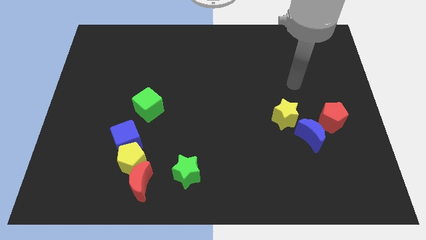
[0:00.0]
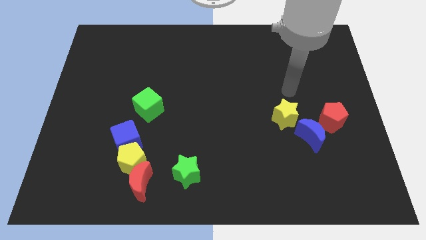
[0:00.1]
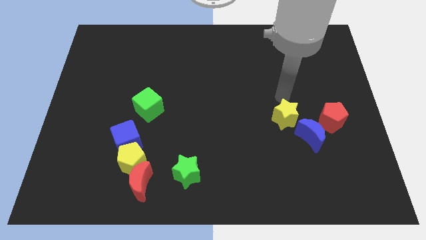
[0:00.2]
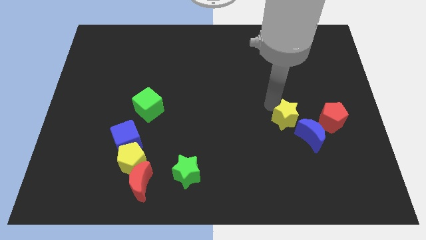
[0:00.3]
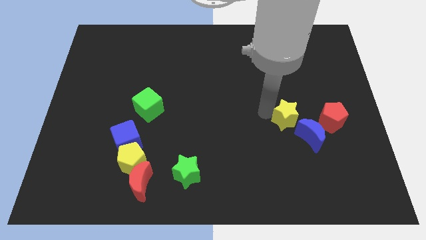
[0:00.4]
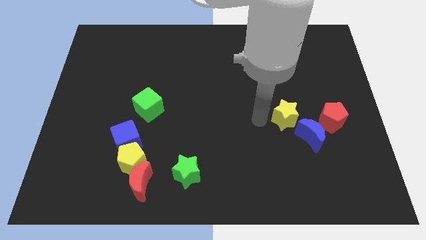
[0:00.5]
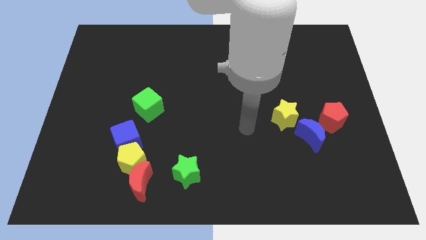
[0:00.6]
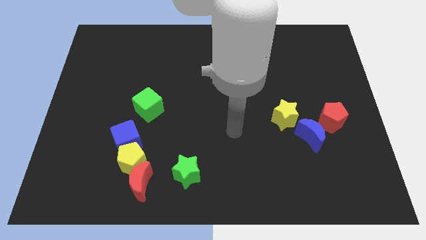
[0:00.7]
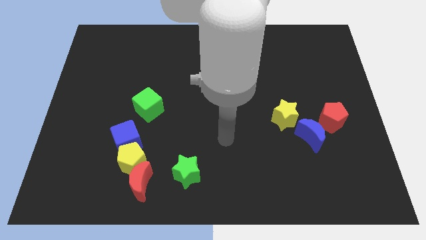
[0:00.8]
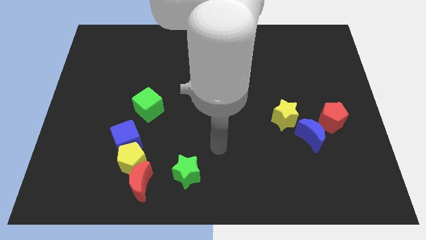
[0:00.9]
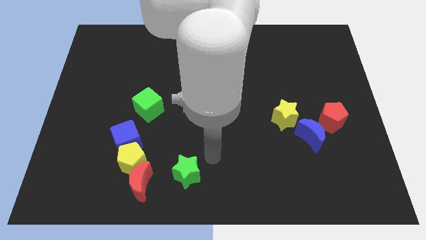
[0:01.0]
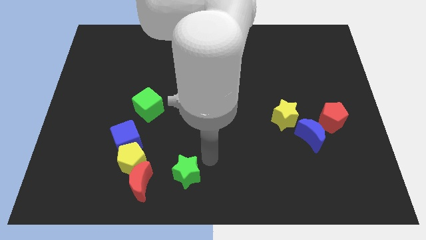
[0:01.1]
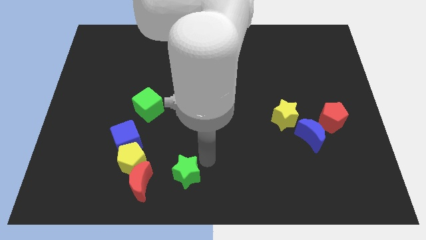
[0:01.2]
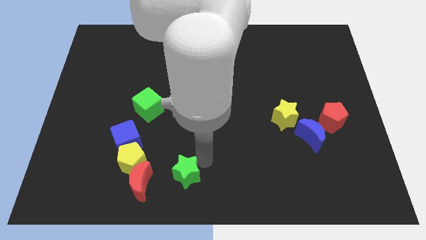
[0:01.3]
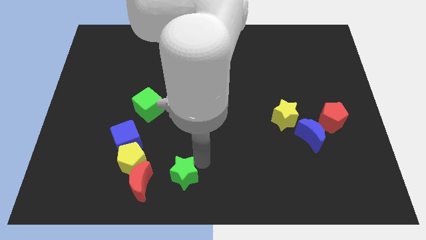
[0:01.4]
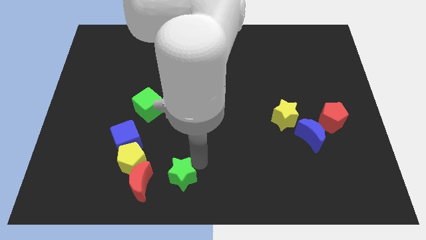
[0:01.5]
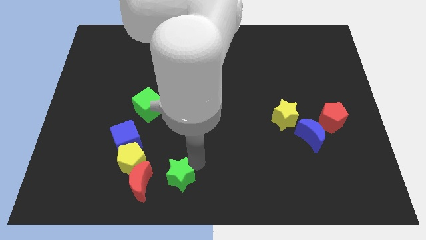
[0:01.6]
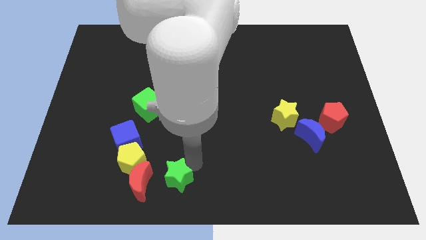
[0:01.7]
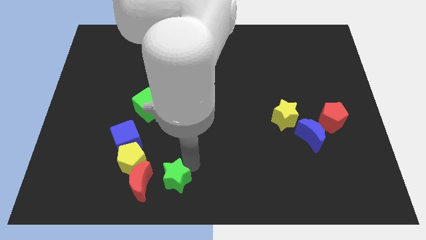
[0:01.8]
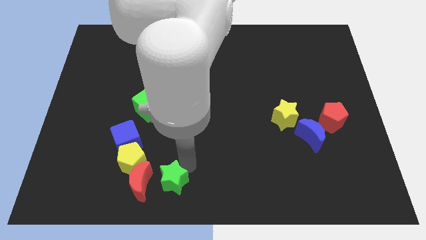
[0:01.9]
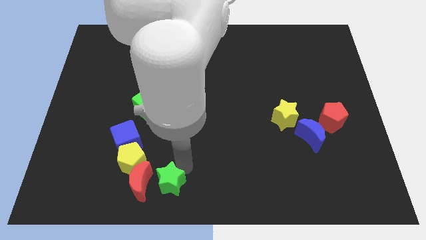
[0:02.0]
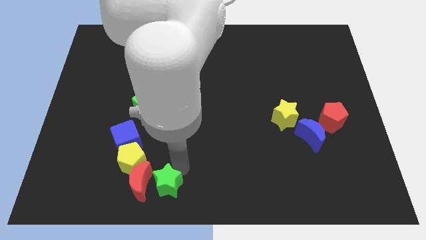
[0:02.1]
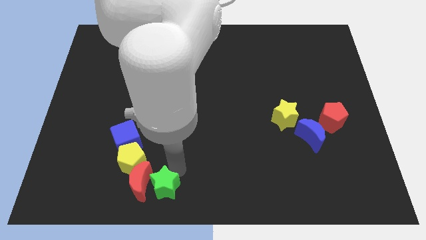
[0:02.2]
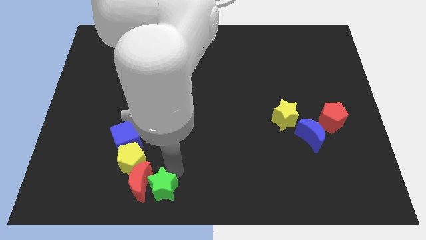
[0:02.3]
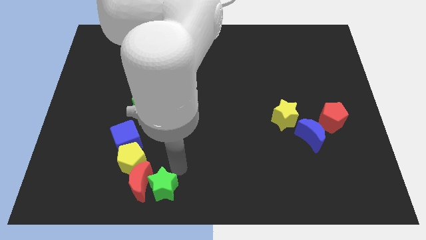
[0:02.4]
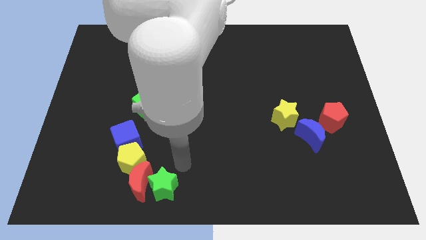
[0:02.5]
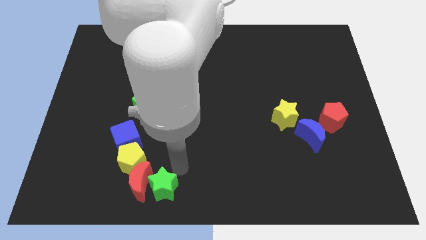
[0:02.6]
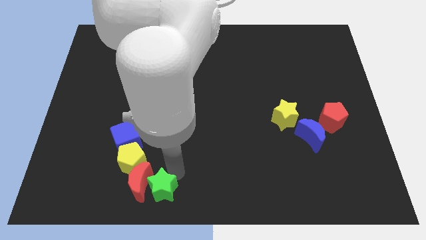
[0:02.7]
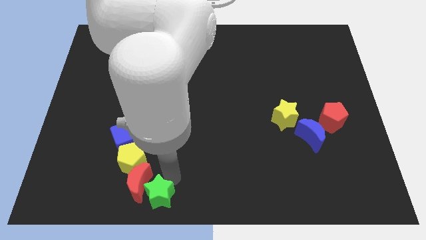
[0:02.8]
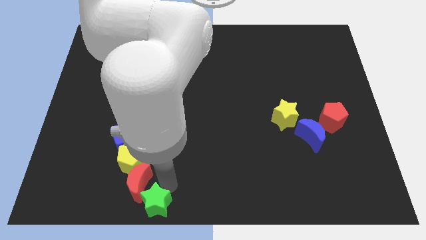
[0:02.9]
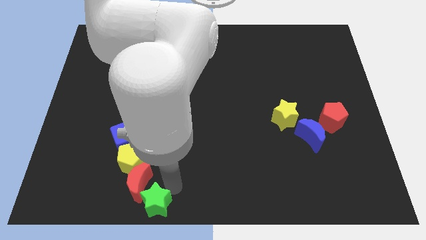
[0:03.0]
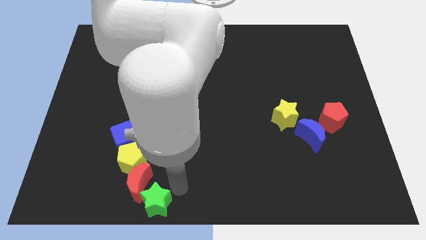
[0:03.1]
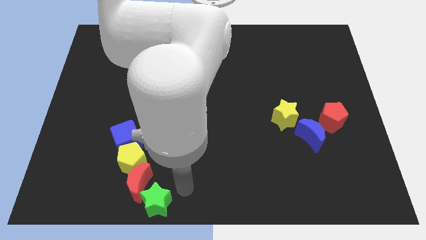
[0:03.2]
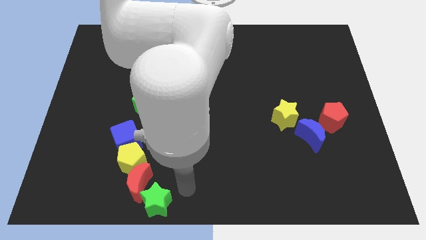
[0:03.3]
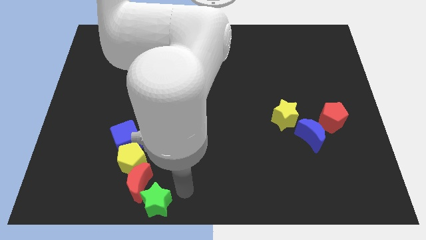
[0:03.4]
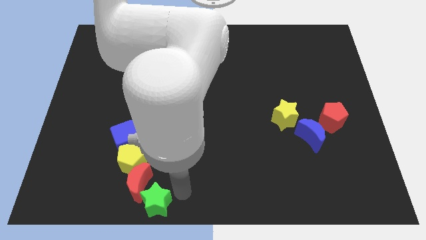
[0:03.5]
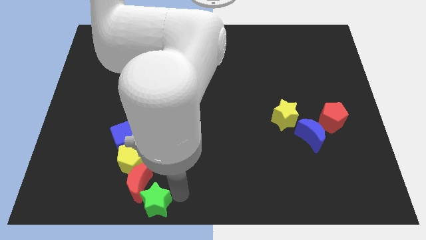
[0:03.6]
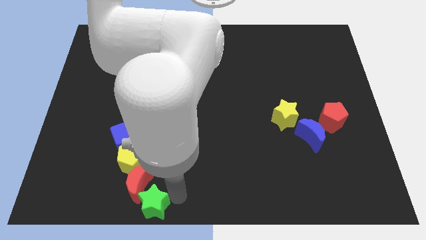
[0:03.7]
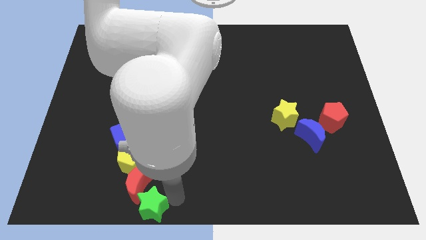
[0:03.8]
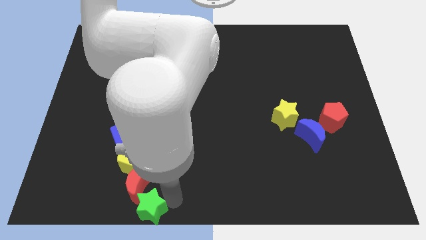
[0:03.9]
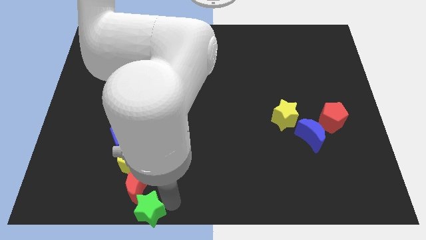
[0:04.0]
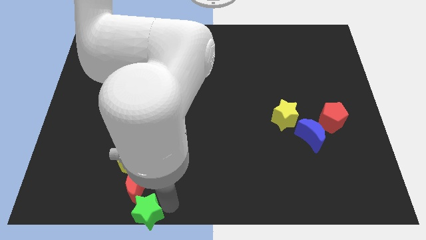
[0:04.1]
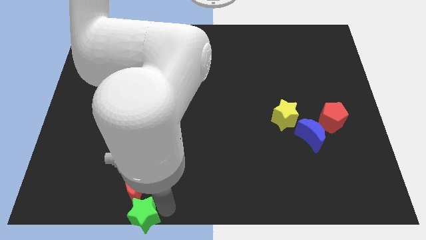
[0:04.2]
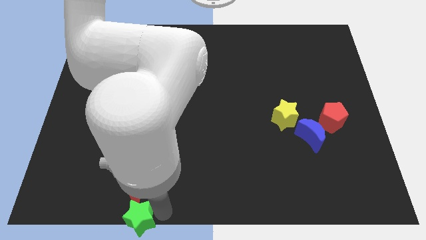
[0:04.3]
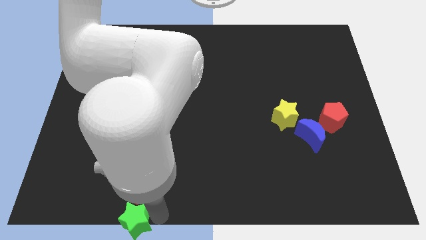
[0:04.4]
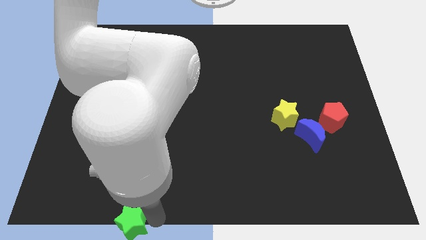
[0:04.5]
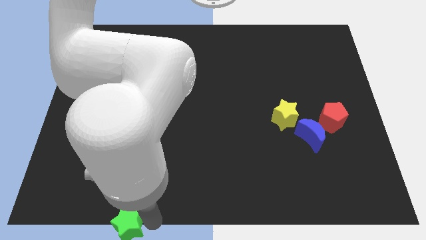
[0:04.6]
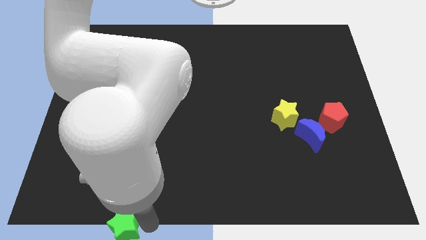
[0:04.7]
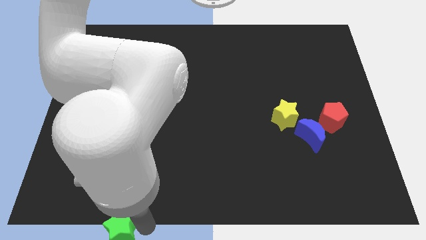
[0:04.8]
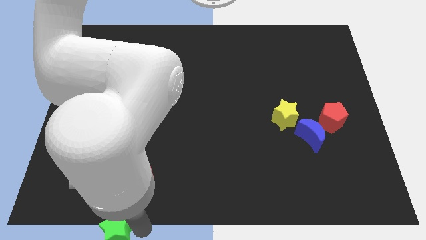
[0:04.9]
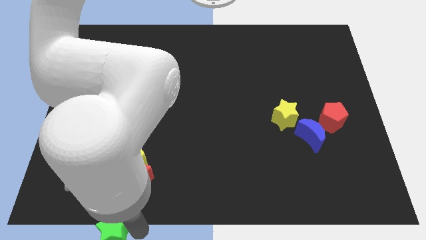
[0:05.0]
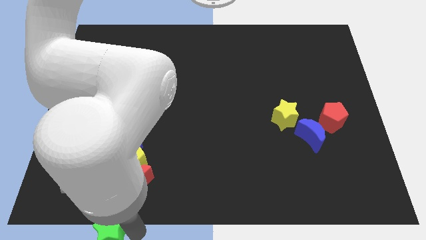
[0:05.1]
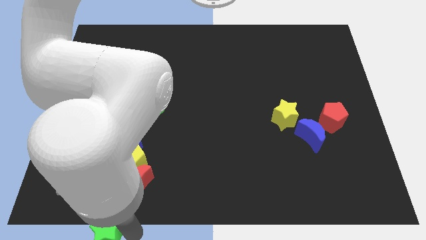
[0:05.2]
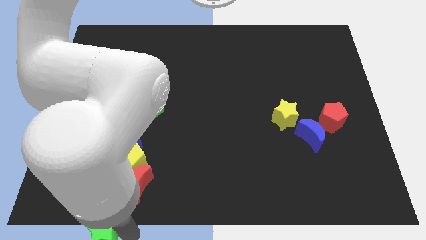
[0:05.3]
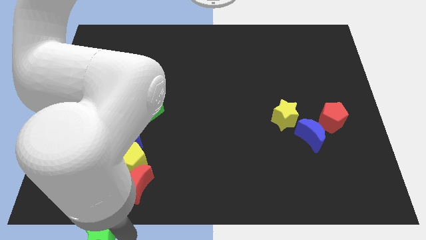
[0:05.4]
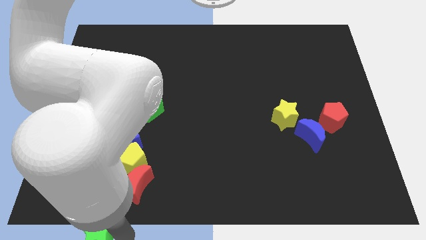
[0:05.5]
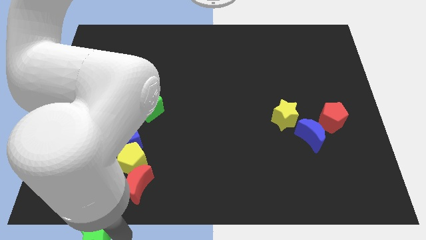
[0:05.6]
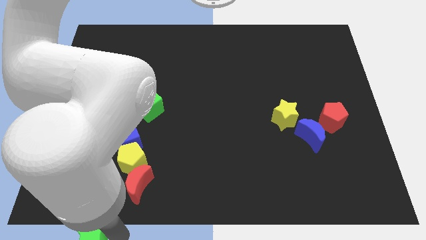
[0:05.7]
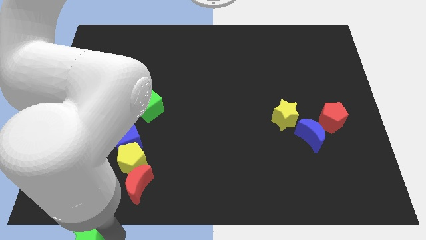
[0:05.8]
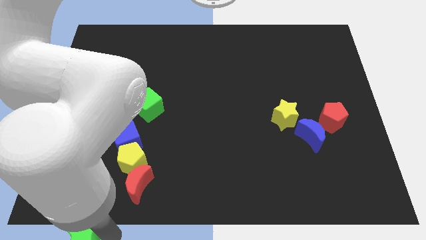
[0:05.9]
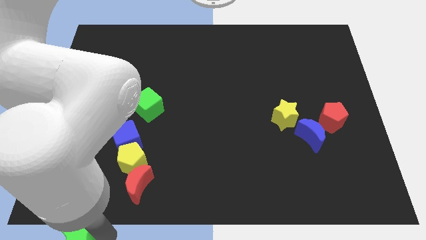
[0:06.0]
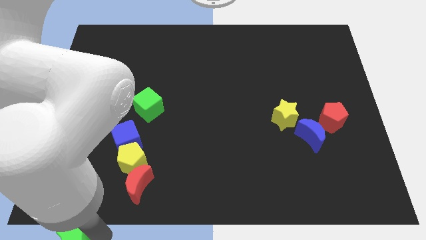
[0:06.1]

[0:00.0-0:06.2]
put the green star to the bottom left

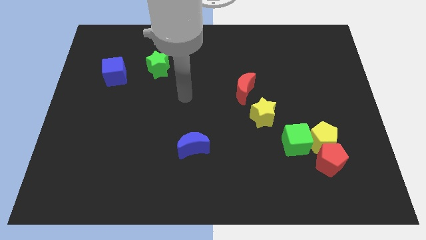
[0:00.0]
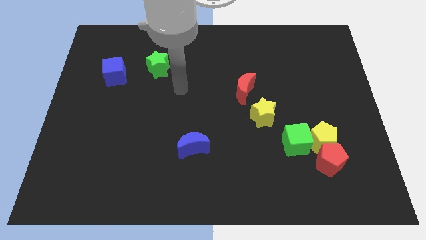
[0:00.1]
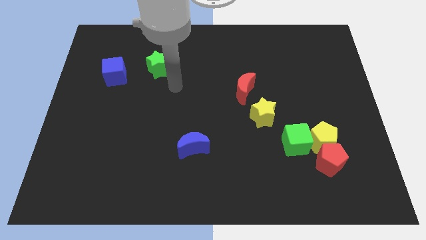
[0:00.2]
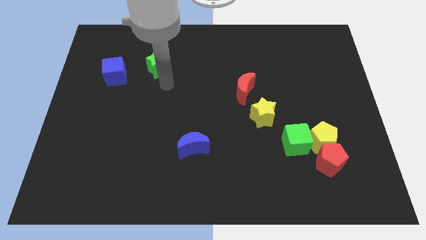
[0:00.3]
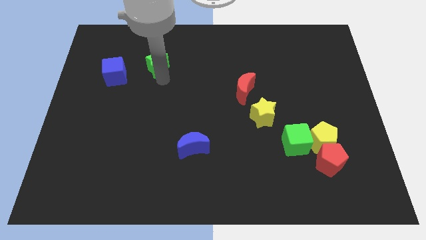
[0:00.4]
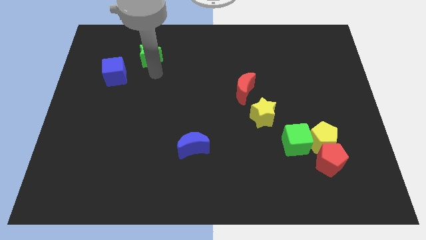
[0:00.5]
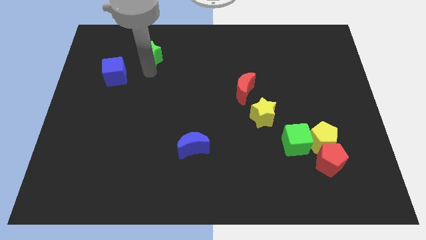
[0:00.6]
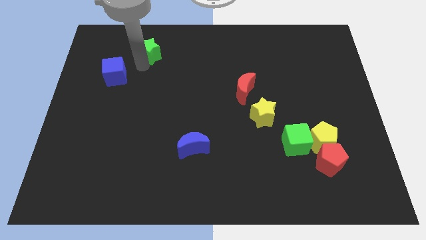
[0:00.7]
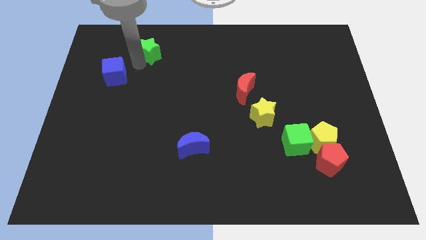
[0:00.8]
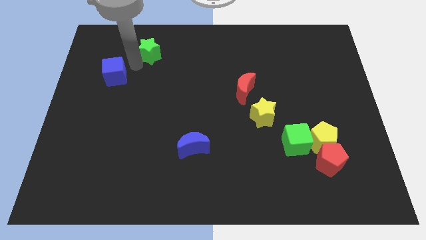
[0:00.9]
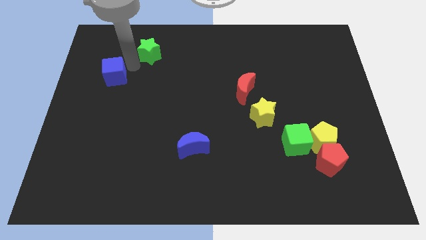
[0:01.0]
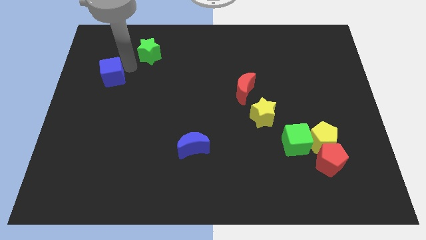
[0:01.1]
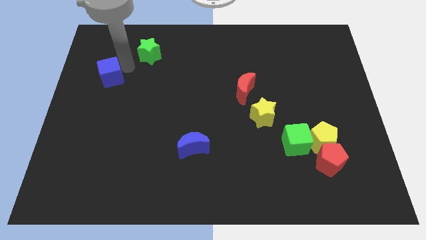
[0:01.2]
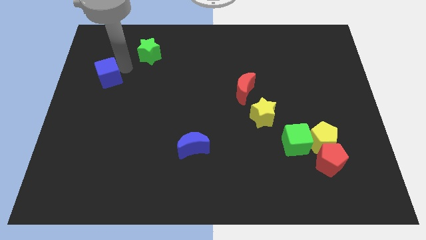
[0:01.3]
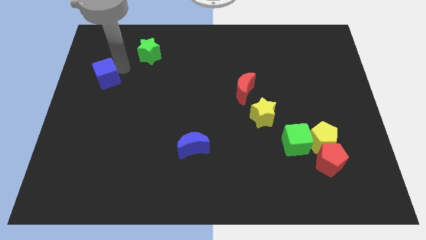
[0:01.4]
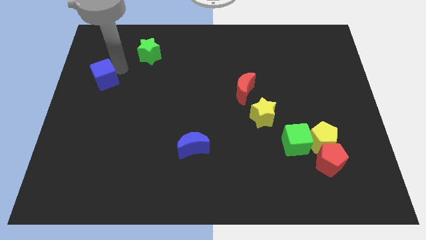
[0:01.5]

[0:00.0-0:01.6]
slide the blue cube to the left side of the board
